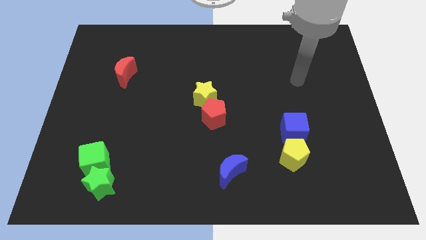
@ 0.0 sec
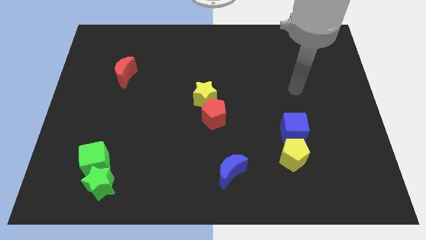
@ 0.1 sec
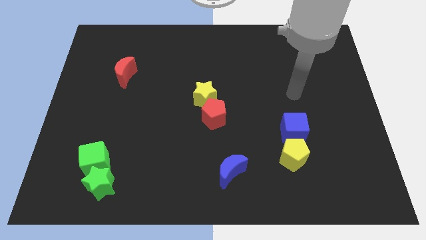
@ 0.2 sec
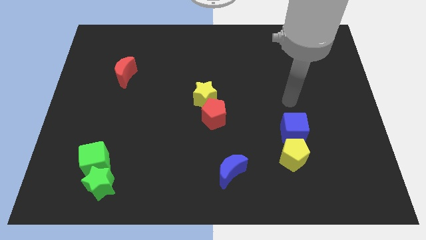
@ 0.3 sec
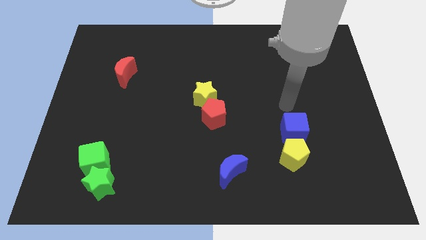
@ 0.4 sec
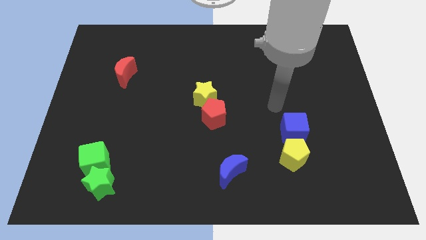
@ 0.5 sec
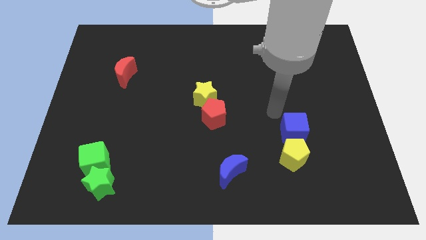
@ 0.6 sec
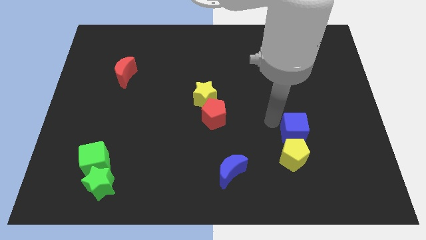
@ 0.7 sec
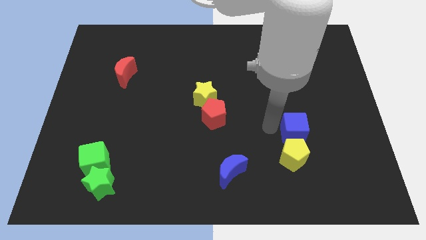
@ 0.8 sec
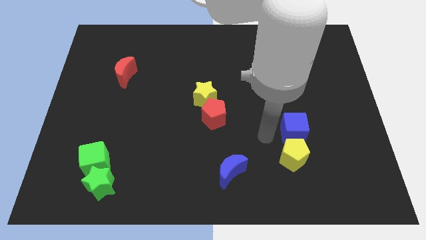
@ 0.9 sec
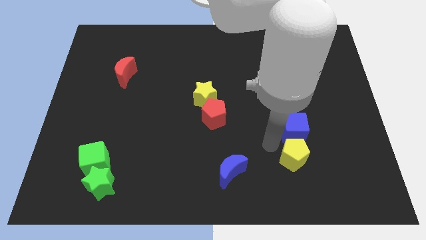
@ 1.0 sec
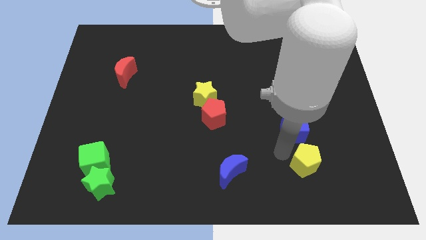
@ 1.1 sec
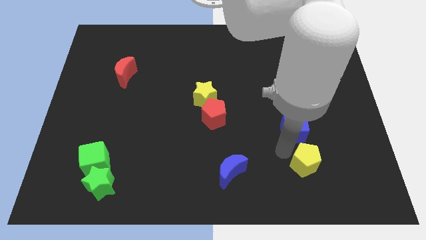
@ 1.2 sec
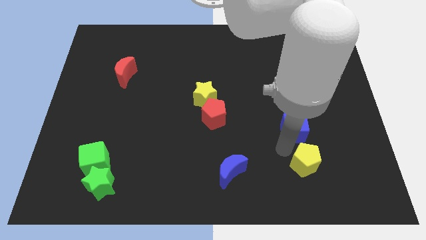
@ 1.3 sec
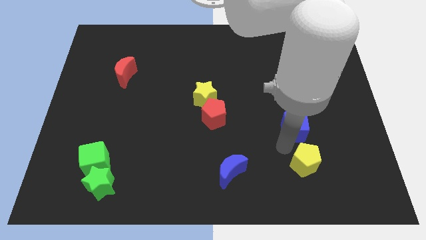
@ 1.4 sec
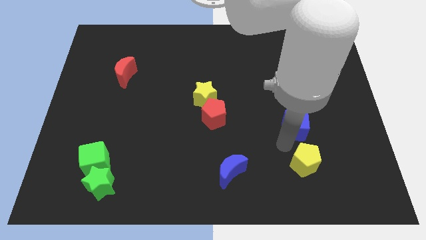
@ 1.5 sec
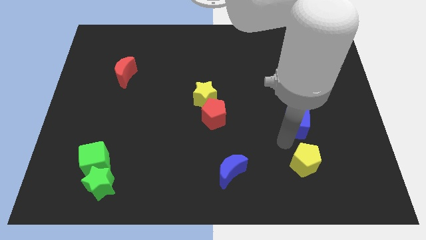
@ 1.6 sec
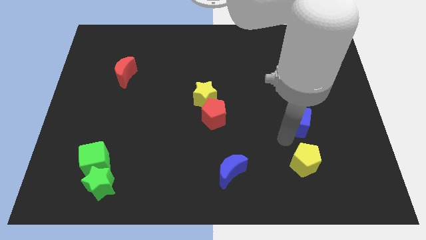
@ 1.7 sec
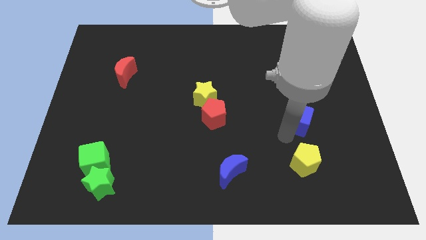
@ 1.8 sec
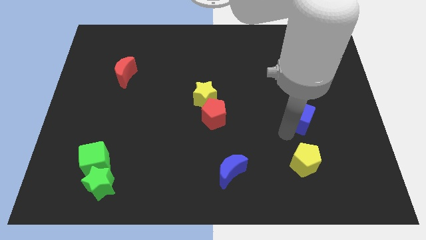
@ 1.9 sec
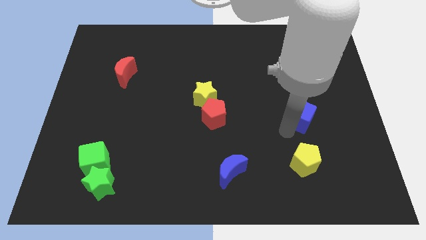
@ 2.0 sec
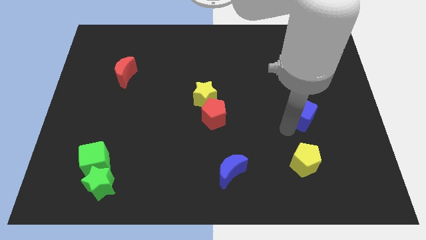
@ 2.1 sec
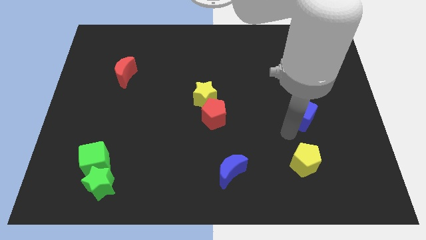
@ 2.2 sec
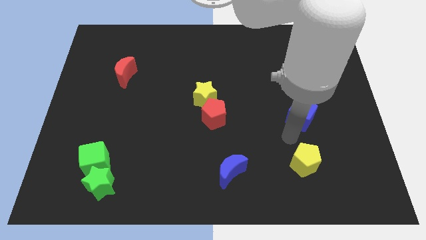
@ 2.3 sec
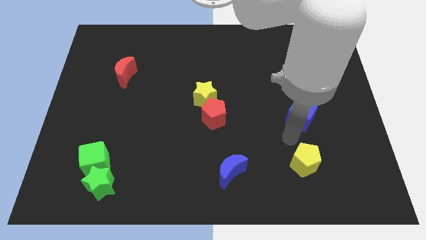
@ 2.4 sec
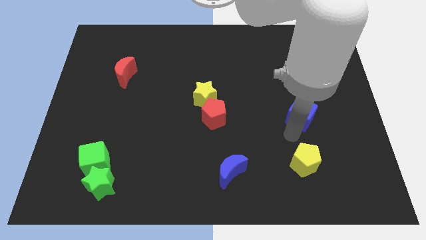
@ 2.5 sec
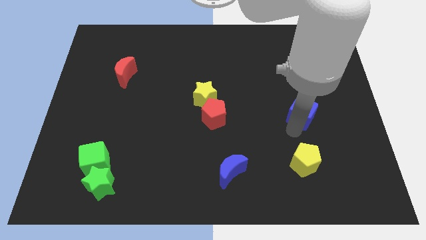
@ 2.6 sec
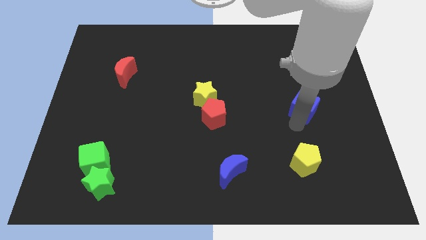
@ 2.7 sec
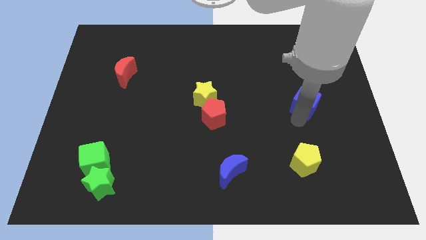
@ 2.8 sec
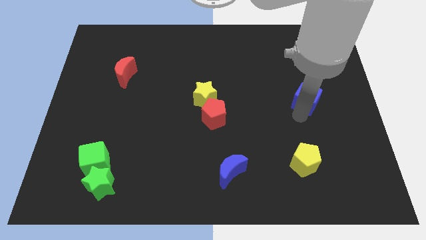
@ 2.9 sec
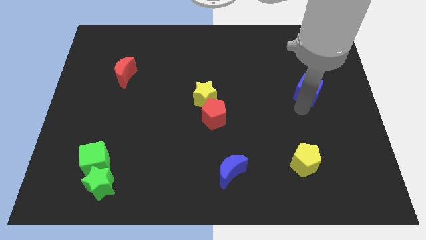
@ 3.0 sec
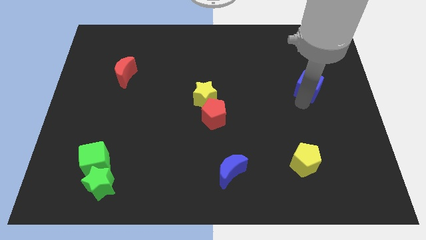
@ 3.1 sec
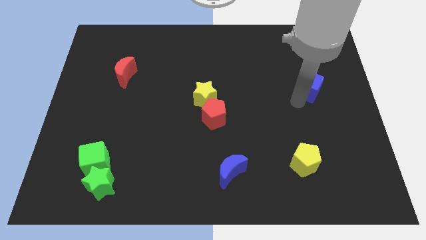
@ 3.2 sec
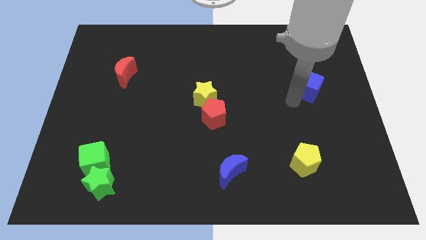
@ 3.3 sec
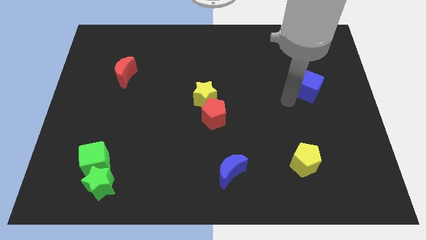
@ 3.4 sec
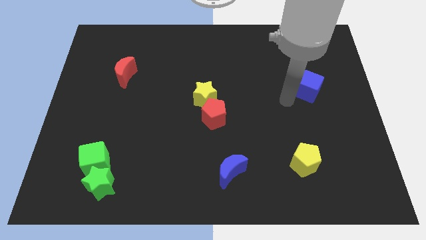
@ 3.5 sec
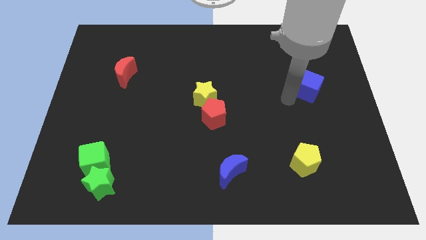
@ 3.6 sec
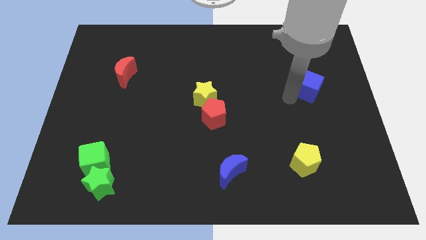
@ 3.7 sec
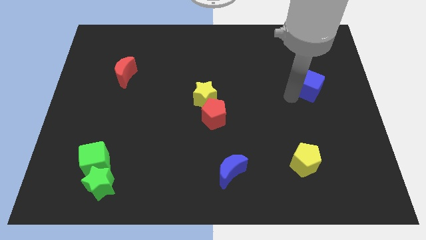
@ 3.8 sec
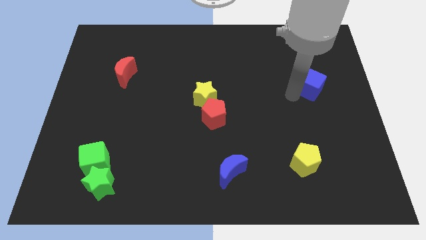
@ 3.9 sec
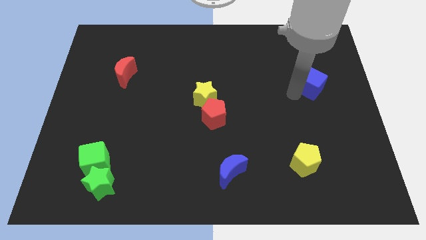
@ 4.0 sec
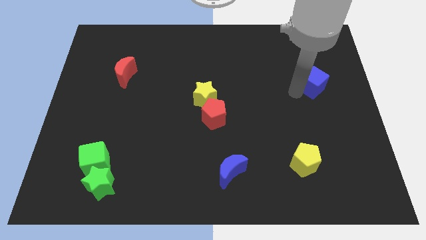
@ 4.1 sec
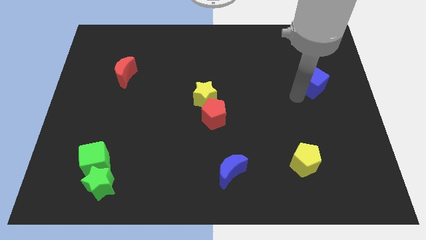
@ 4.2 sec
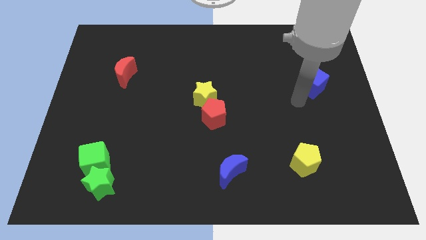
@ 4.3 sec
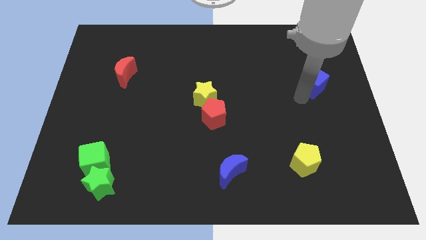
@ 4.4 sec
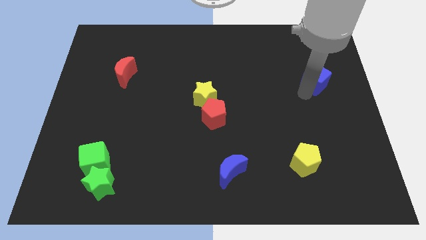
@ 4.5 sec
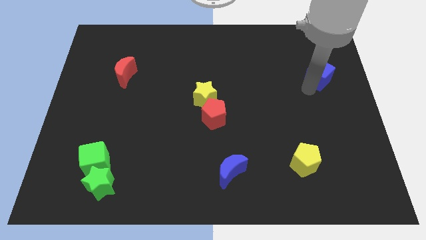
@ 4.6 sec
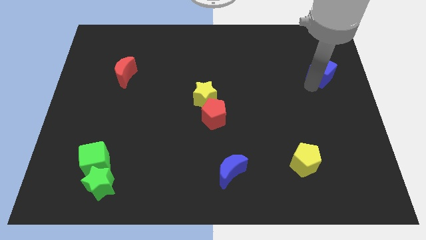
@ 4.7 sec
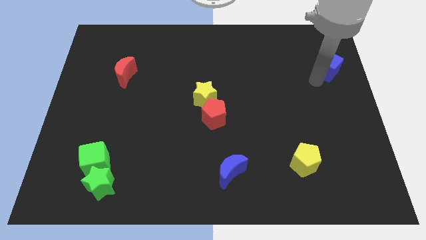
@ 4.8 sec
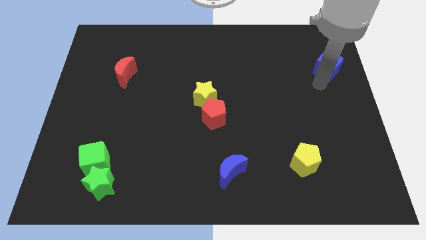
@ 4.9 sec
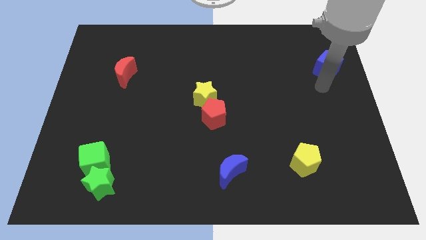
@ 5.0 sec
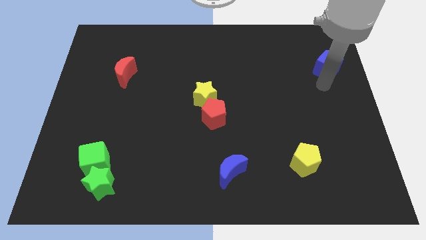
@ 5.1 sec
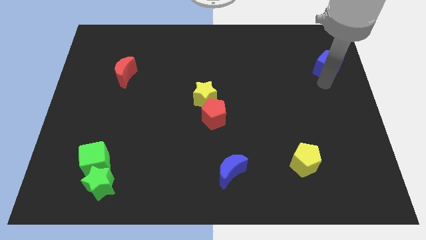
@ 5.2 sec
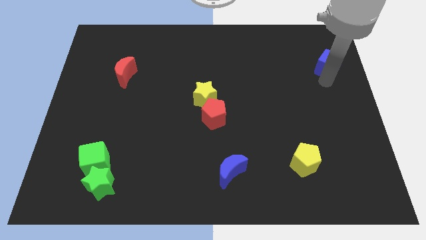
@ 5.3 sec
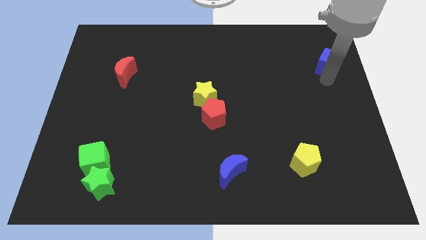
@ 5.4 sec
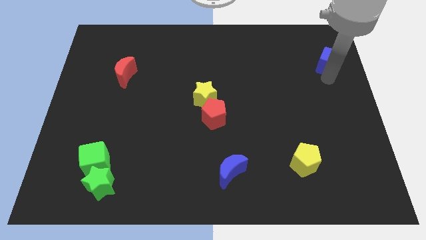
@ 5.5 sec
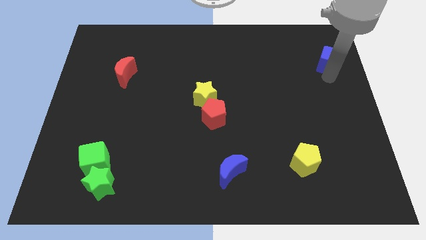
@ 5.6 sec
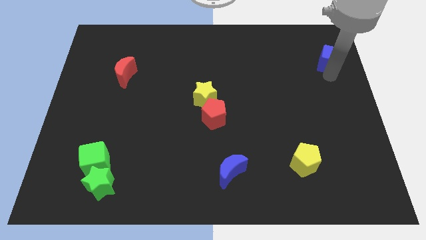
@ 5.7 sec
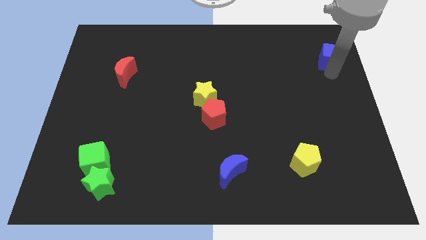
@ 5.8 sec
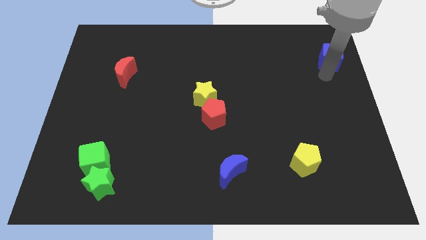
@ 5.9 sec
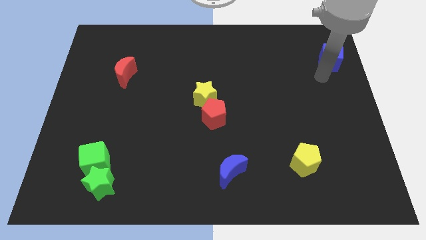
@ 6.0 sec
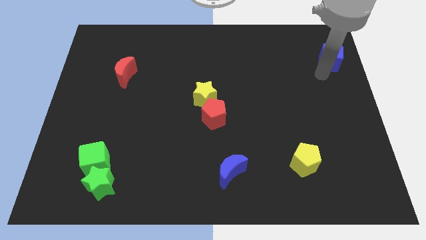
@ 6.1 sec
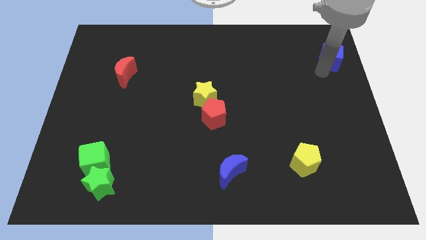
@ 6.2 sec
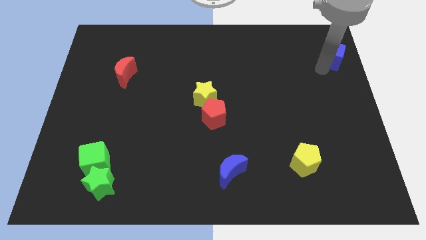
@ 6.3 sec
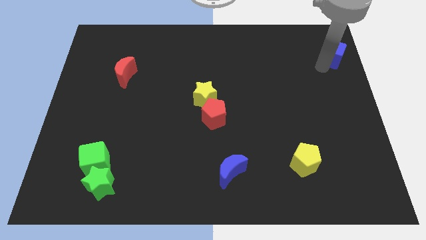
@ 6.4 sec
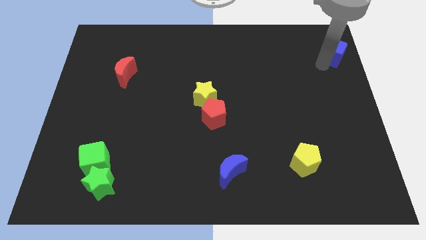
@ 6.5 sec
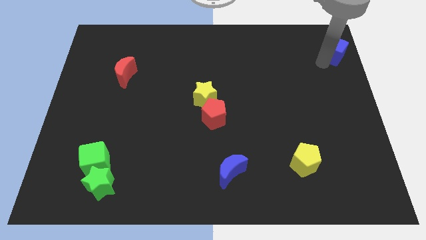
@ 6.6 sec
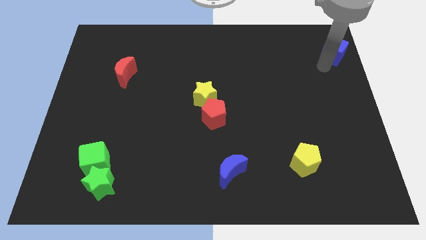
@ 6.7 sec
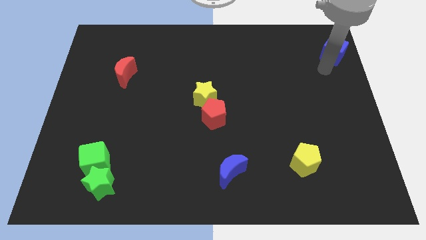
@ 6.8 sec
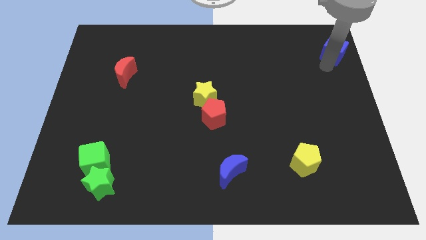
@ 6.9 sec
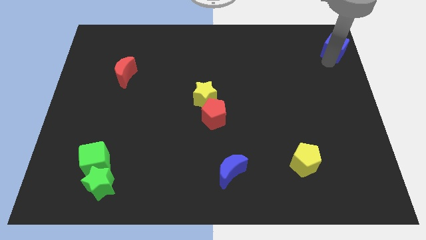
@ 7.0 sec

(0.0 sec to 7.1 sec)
move the blue cube to the top right

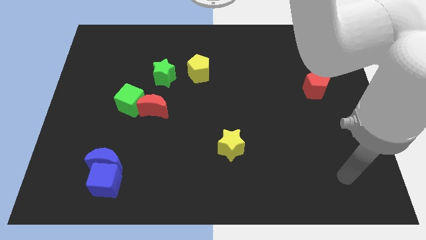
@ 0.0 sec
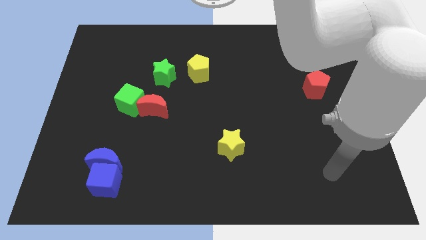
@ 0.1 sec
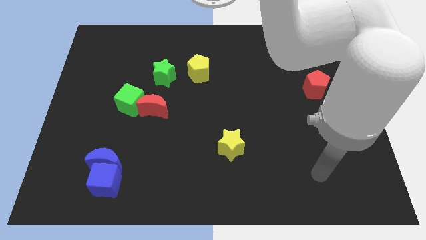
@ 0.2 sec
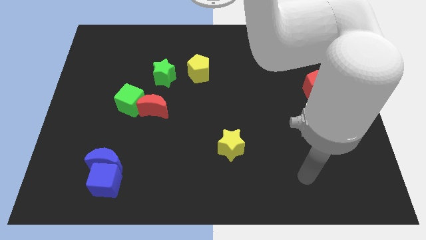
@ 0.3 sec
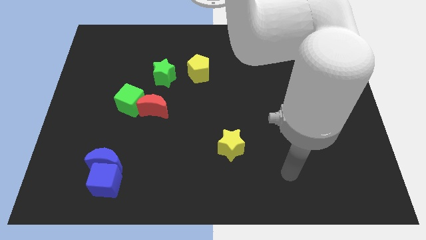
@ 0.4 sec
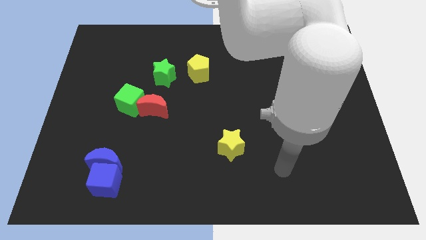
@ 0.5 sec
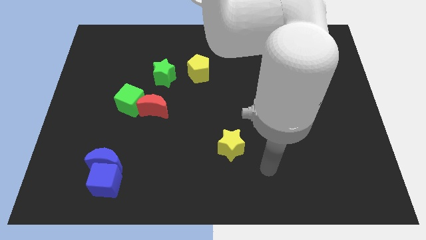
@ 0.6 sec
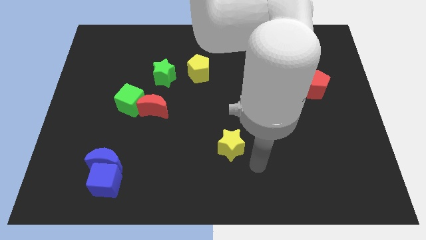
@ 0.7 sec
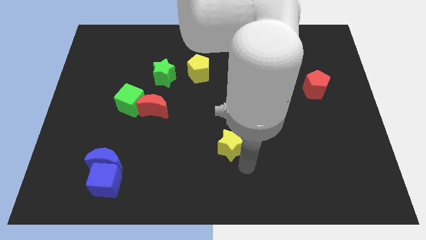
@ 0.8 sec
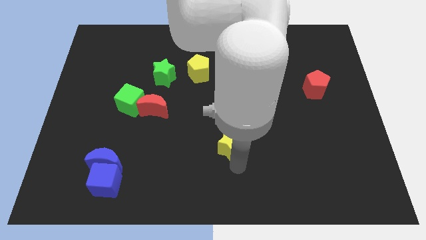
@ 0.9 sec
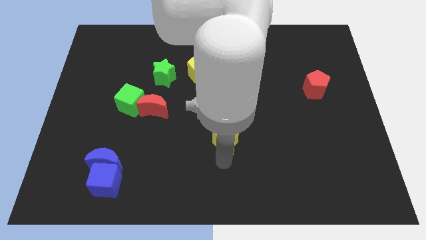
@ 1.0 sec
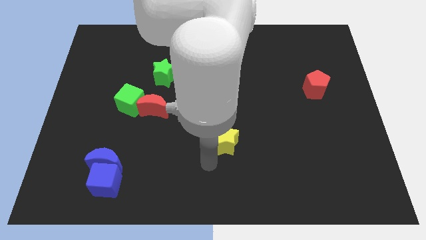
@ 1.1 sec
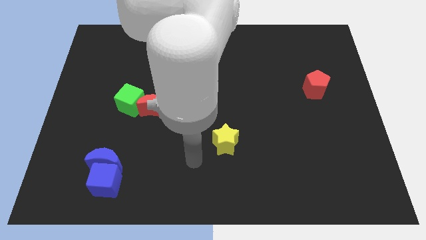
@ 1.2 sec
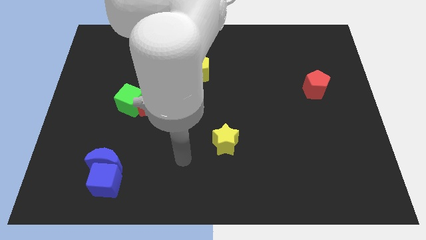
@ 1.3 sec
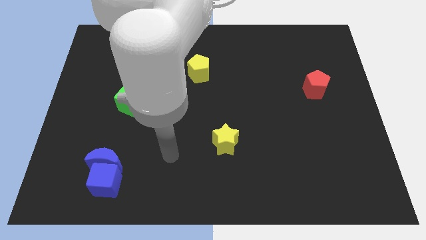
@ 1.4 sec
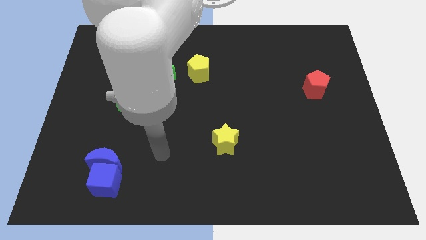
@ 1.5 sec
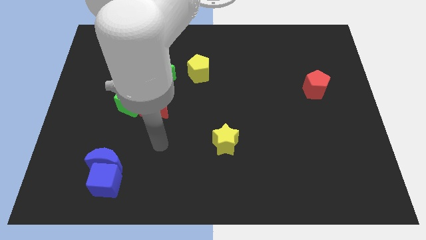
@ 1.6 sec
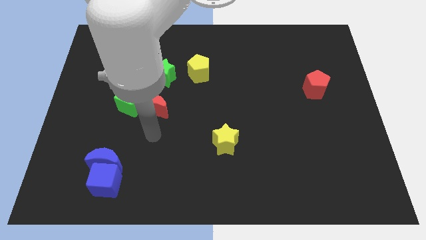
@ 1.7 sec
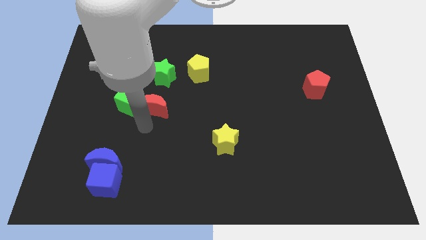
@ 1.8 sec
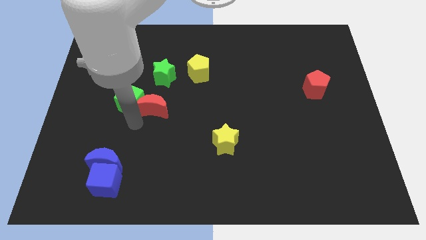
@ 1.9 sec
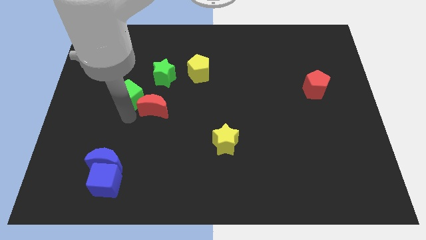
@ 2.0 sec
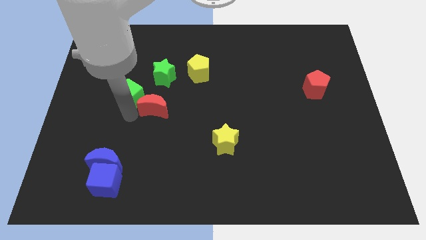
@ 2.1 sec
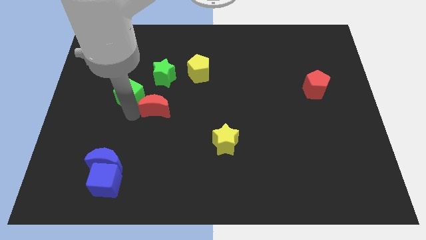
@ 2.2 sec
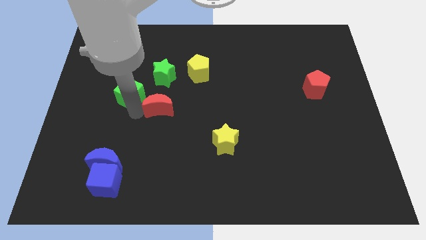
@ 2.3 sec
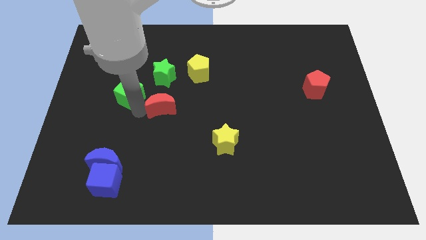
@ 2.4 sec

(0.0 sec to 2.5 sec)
slide the red moon to the middle
